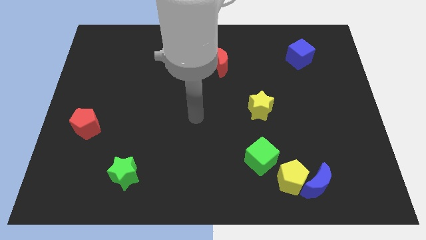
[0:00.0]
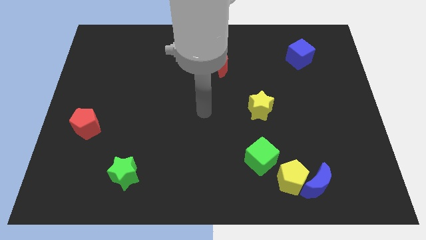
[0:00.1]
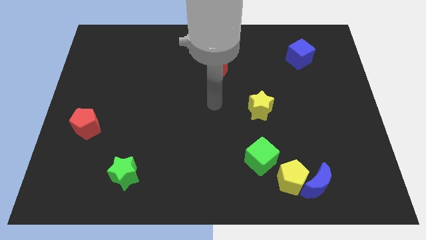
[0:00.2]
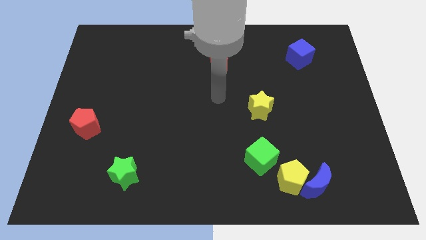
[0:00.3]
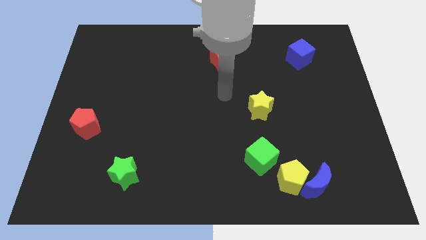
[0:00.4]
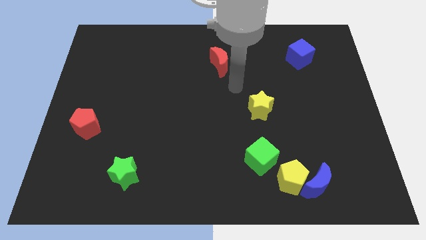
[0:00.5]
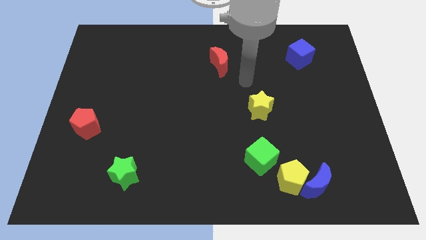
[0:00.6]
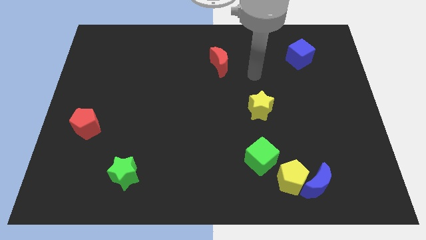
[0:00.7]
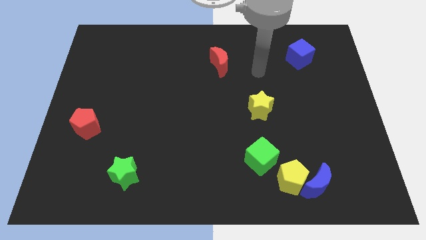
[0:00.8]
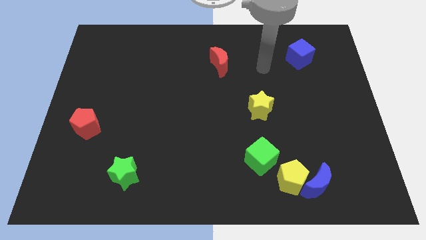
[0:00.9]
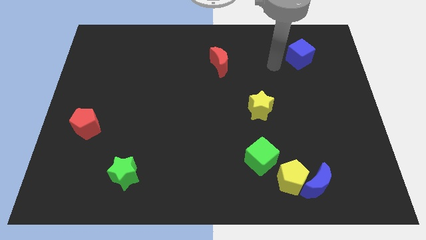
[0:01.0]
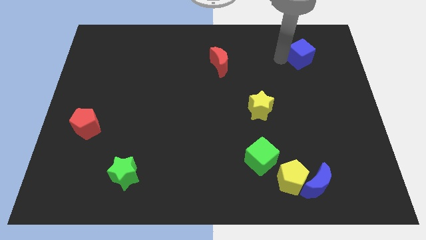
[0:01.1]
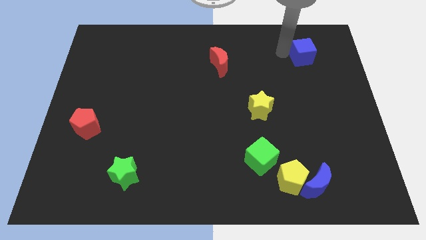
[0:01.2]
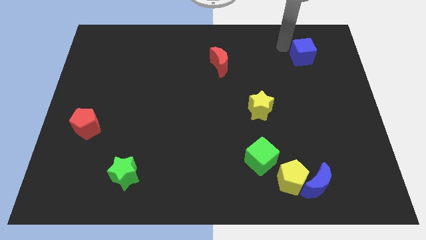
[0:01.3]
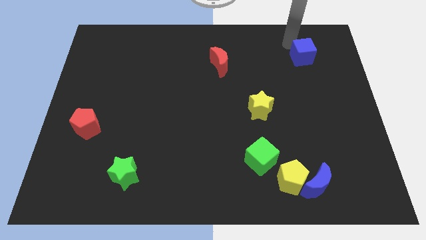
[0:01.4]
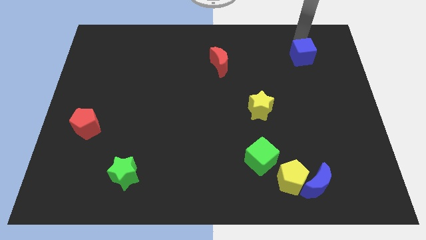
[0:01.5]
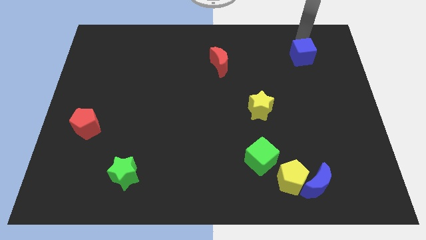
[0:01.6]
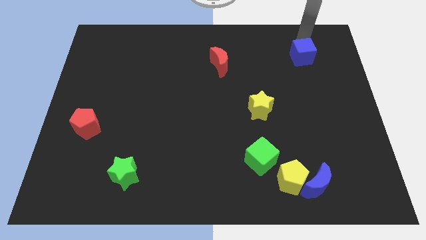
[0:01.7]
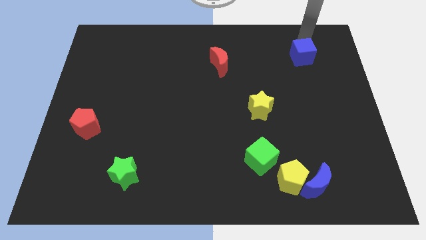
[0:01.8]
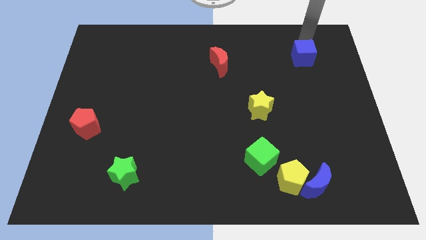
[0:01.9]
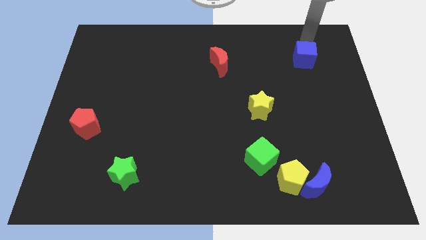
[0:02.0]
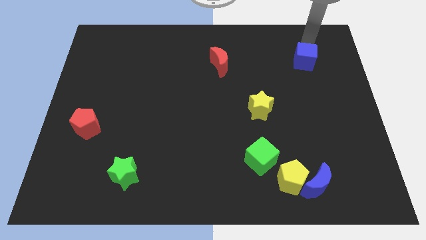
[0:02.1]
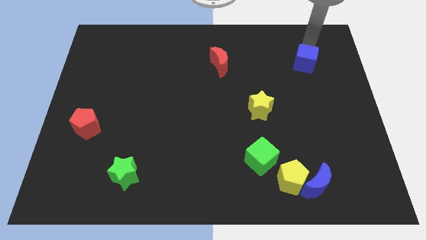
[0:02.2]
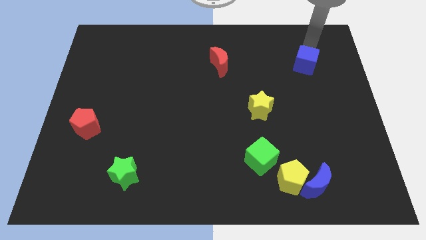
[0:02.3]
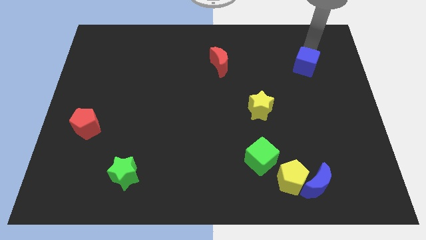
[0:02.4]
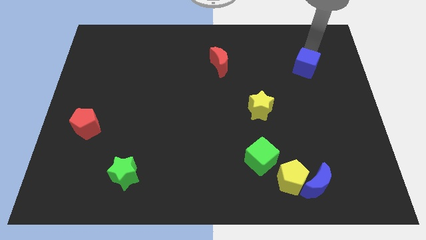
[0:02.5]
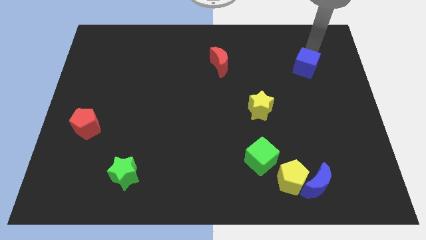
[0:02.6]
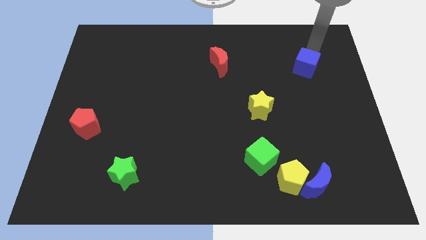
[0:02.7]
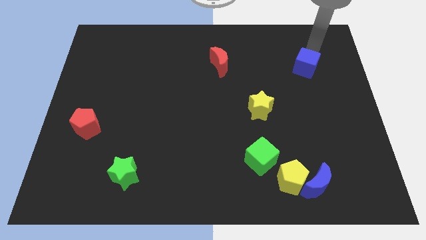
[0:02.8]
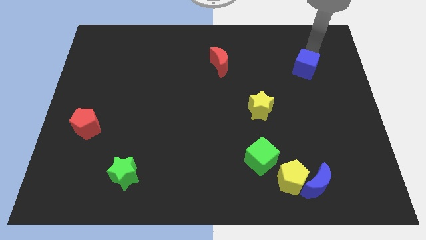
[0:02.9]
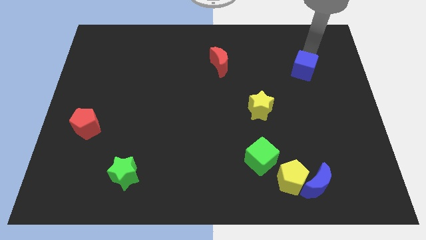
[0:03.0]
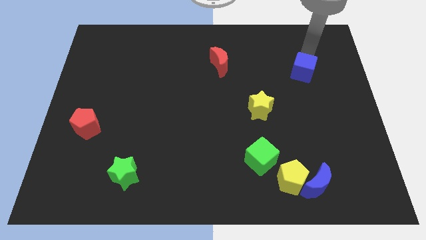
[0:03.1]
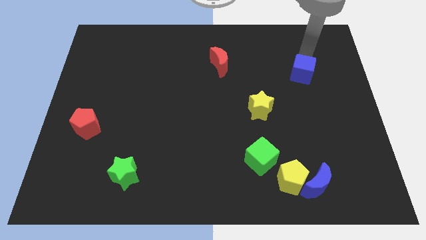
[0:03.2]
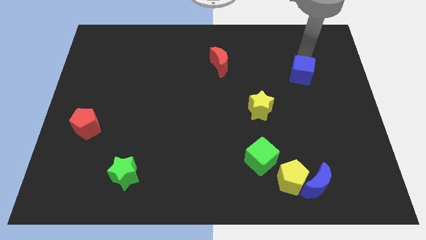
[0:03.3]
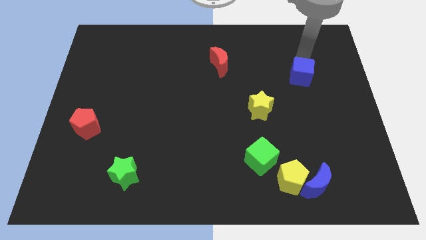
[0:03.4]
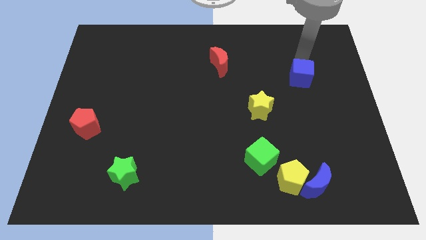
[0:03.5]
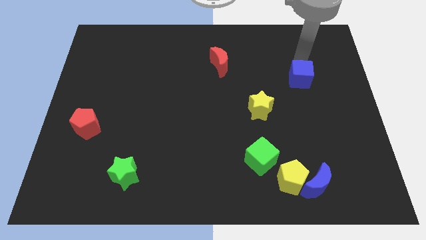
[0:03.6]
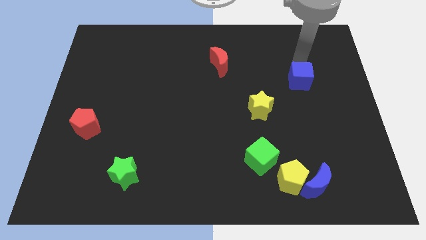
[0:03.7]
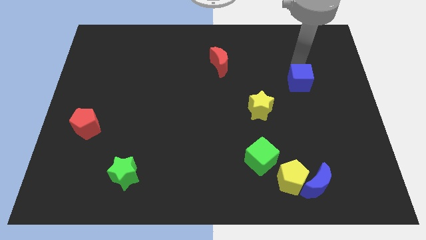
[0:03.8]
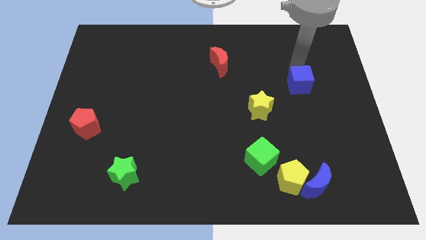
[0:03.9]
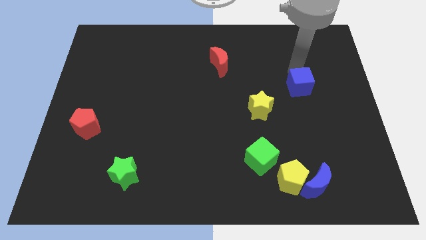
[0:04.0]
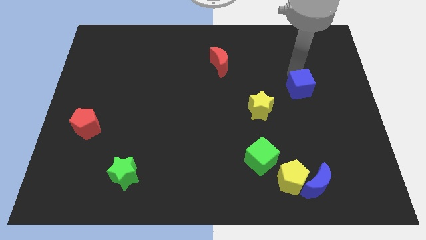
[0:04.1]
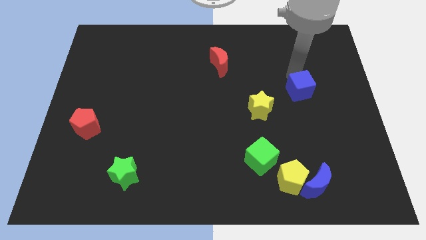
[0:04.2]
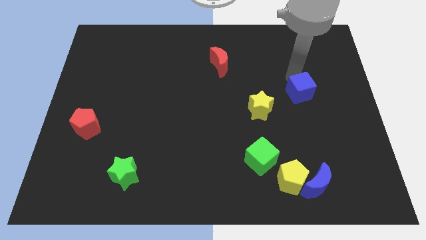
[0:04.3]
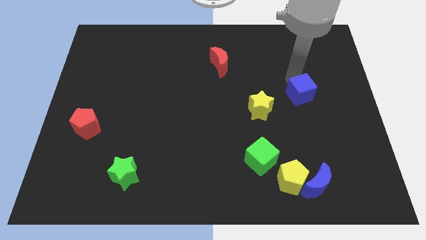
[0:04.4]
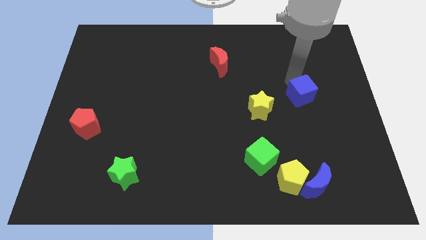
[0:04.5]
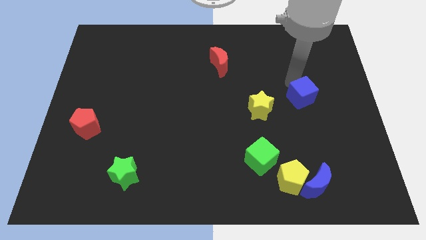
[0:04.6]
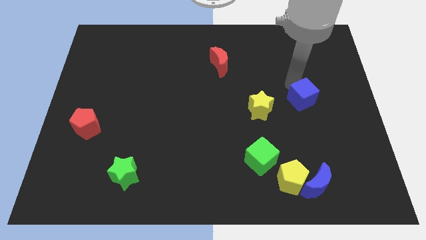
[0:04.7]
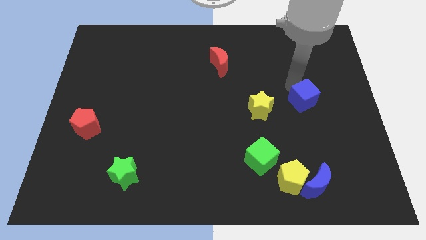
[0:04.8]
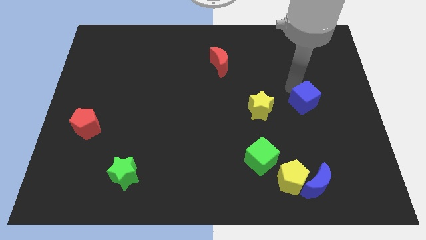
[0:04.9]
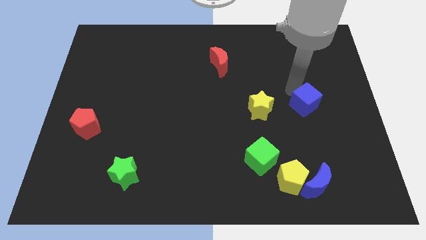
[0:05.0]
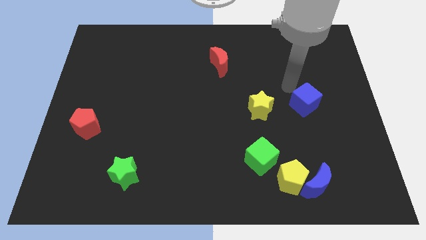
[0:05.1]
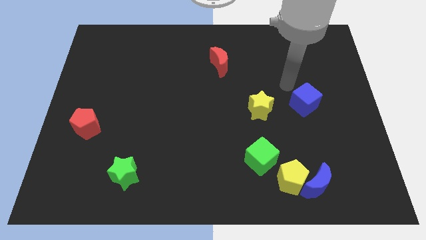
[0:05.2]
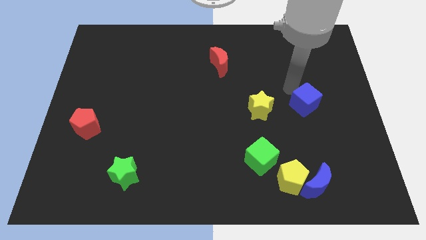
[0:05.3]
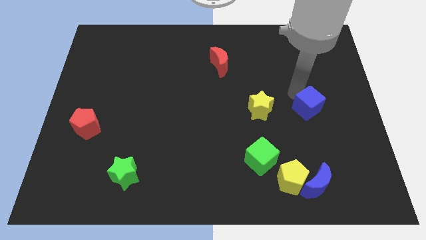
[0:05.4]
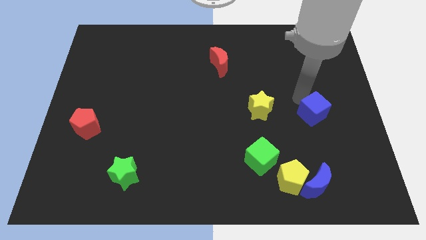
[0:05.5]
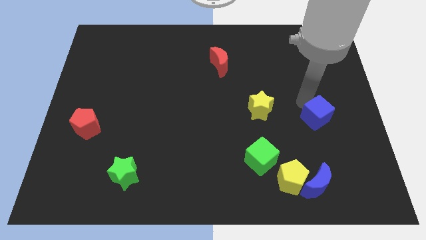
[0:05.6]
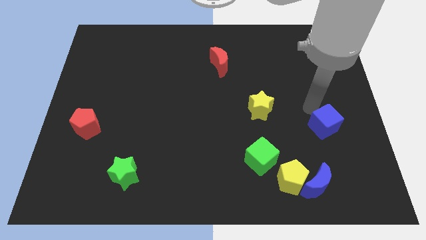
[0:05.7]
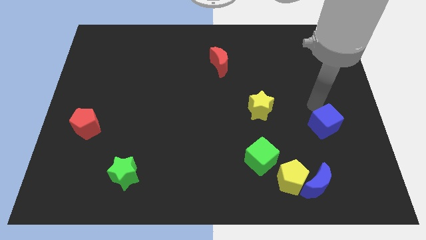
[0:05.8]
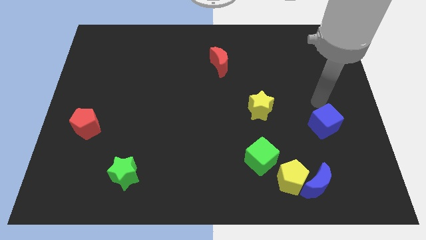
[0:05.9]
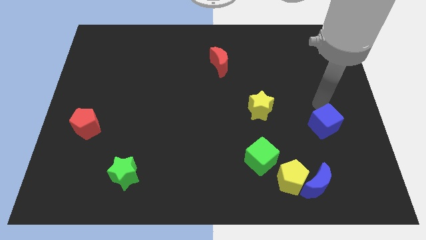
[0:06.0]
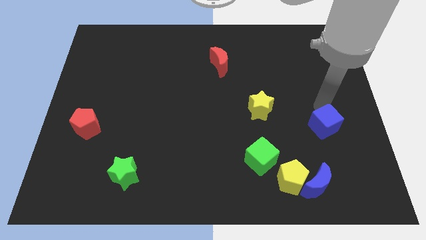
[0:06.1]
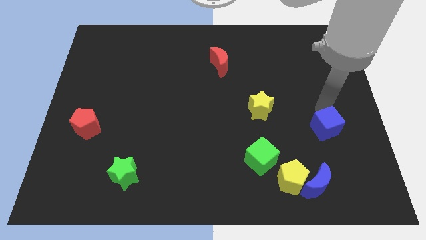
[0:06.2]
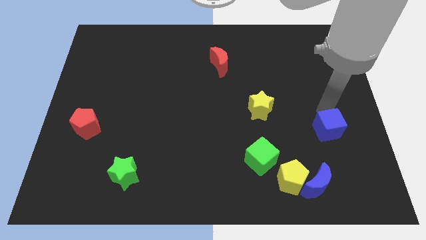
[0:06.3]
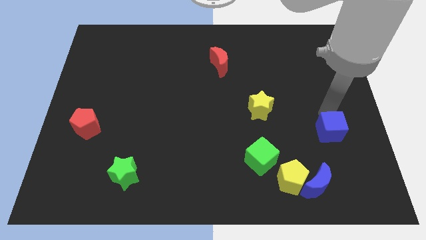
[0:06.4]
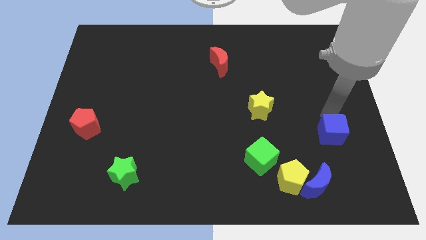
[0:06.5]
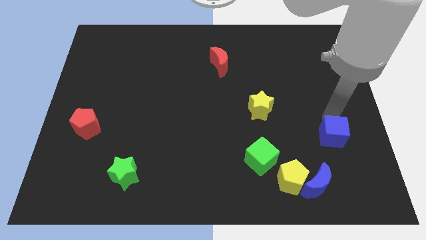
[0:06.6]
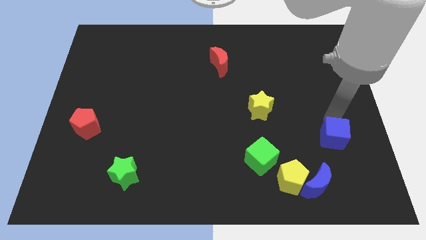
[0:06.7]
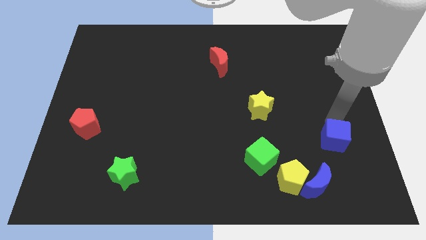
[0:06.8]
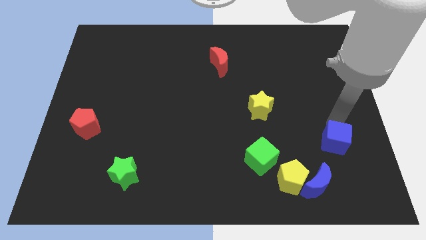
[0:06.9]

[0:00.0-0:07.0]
move the blue cube diagonally up and to the right of the blue moon
